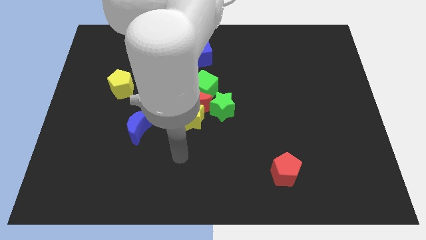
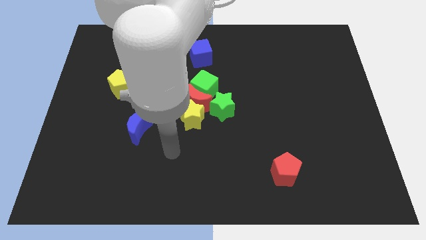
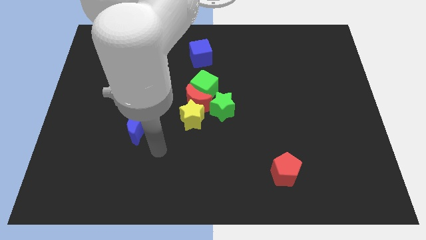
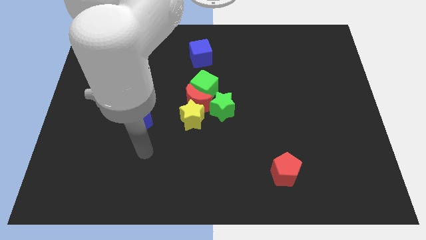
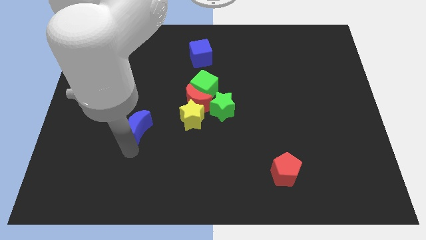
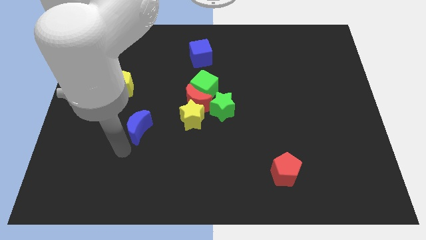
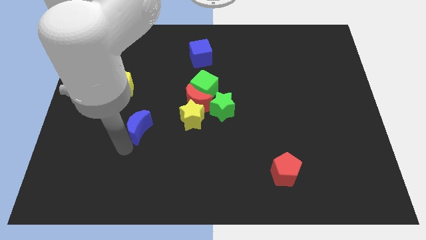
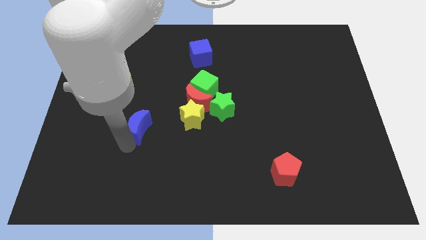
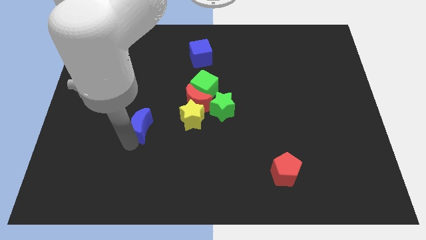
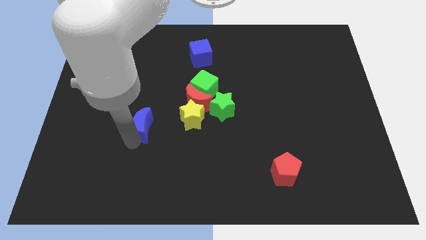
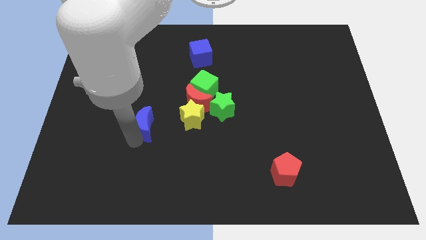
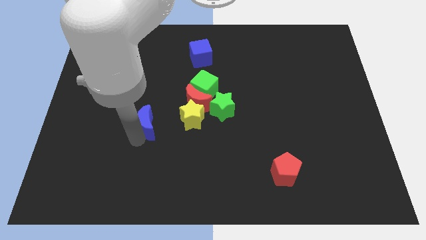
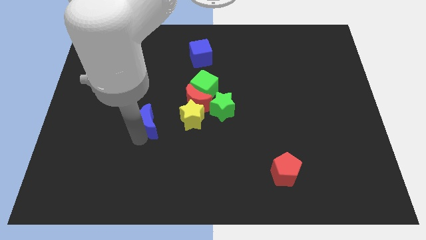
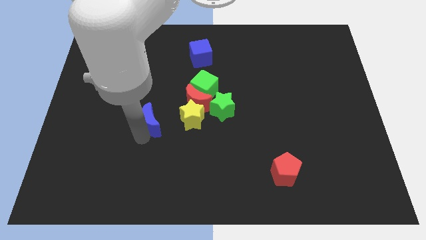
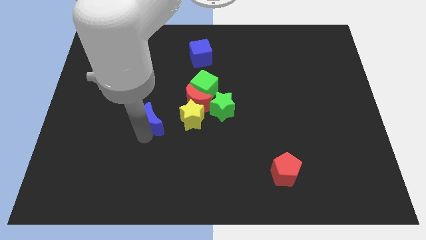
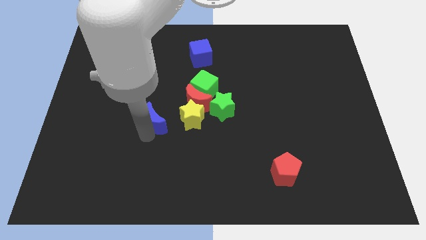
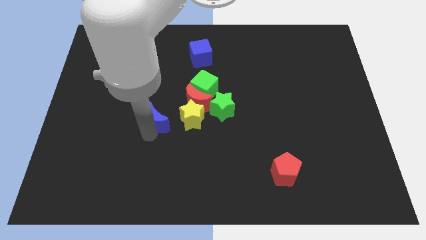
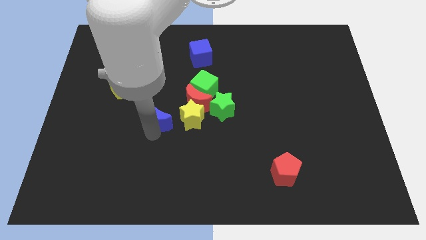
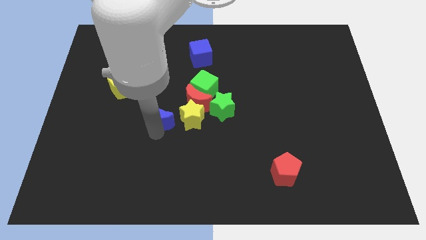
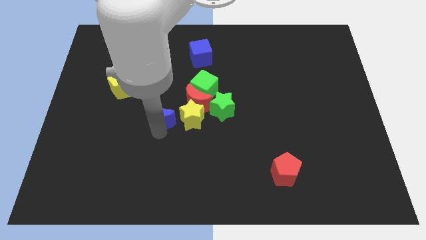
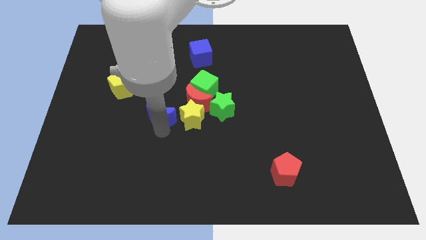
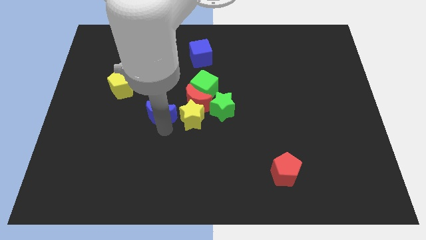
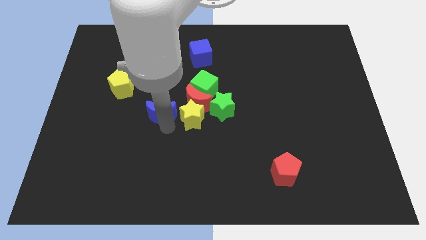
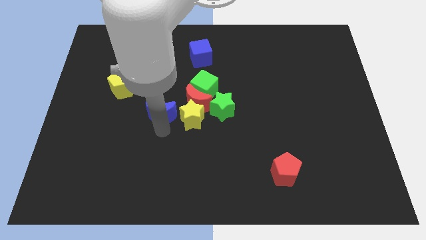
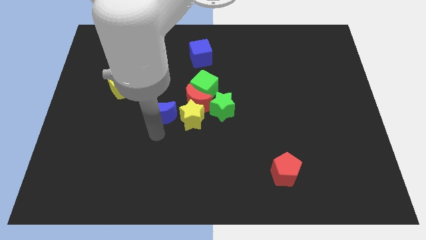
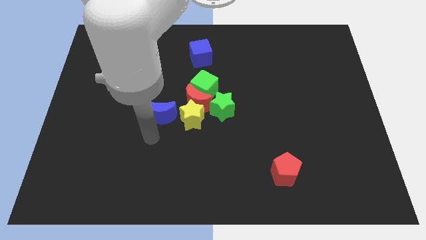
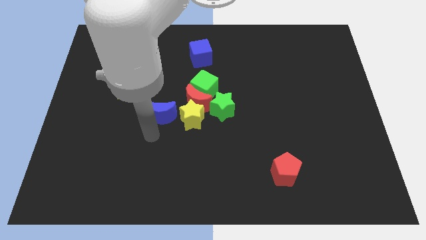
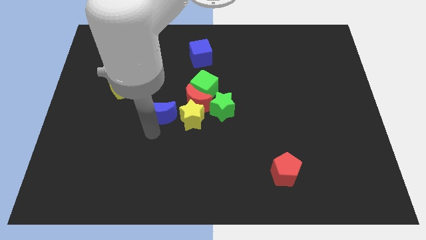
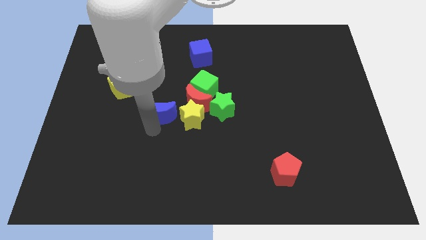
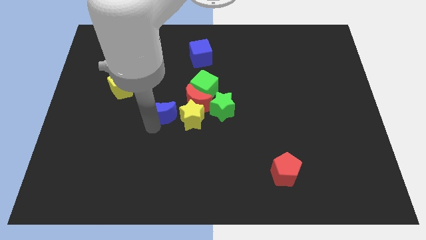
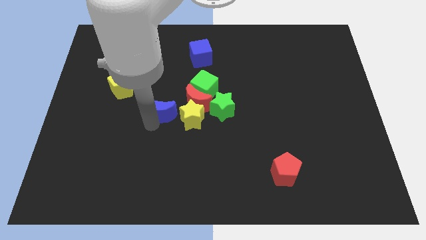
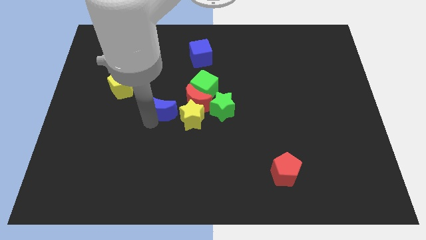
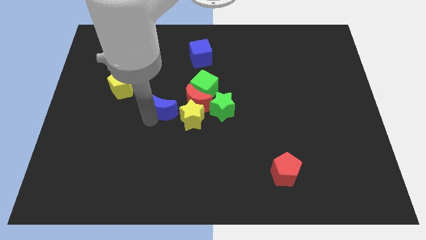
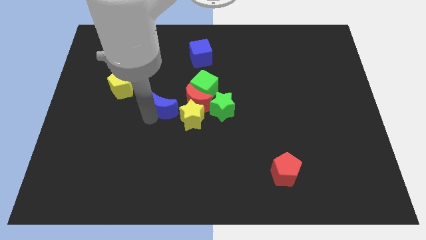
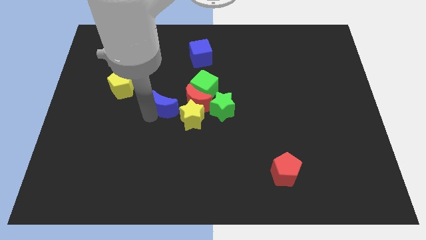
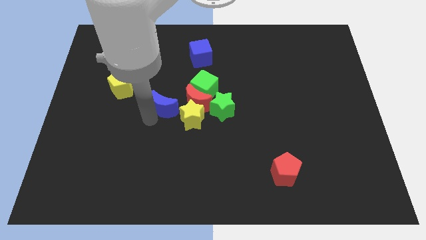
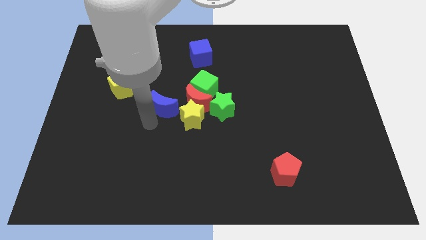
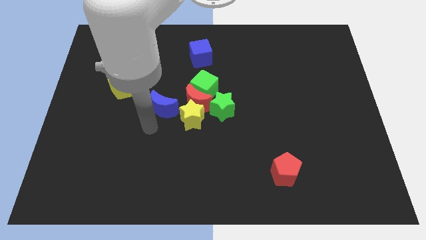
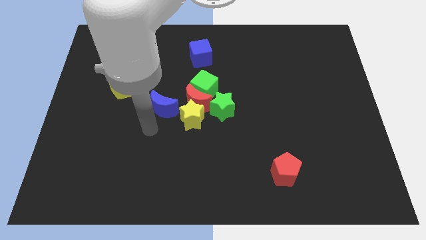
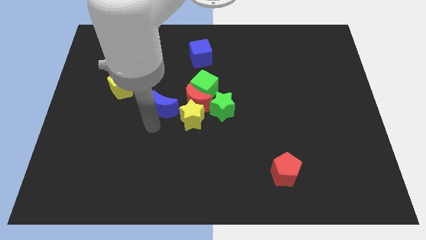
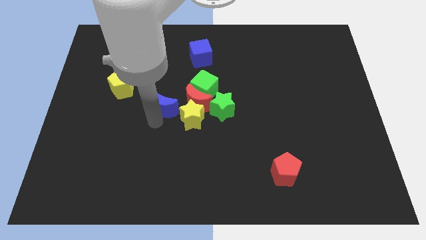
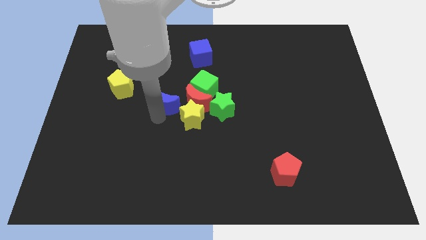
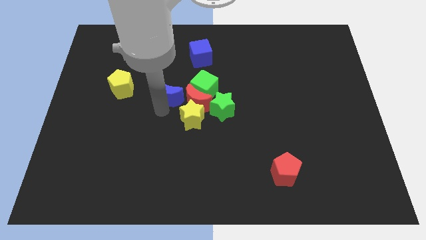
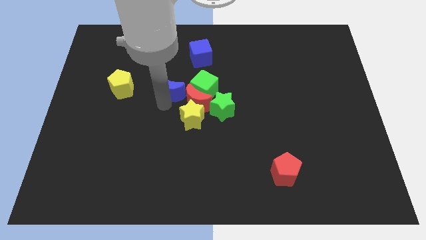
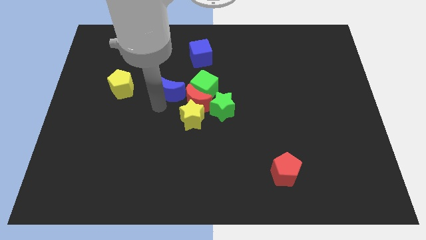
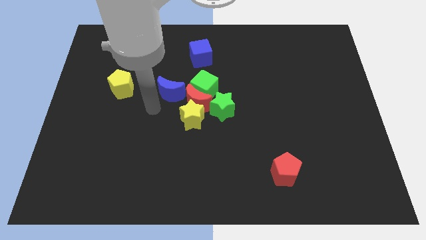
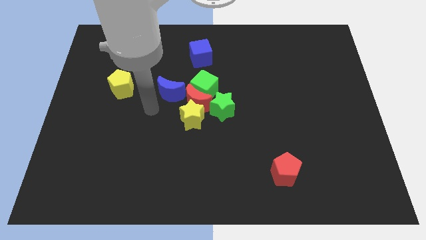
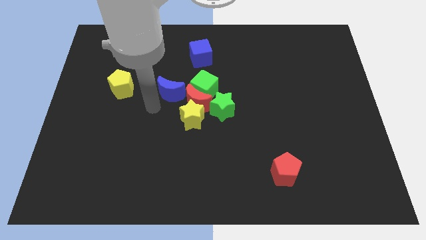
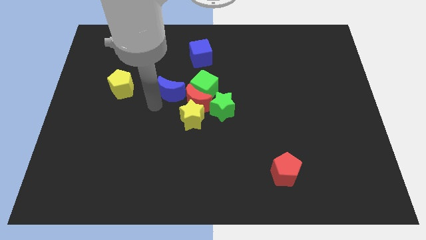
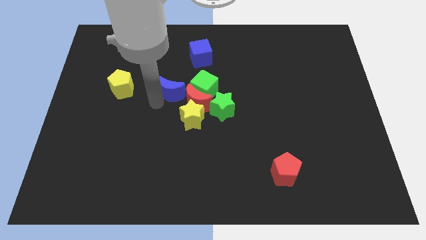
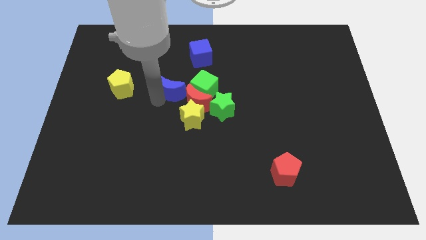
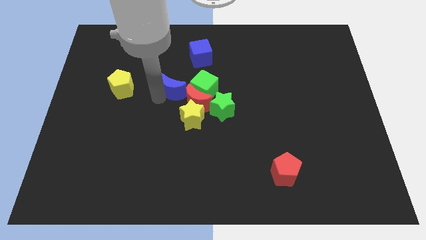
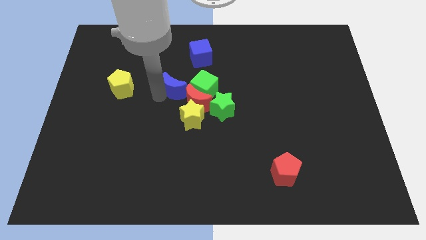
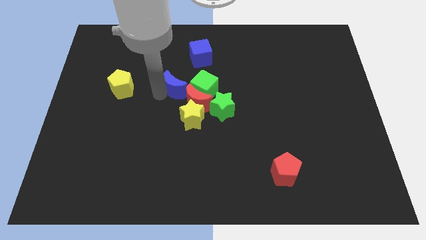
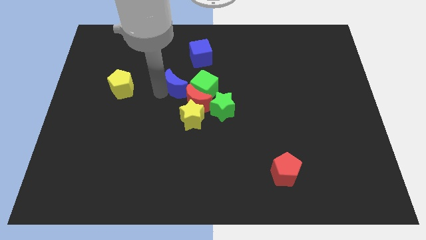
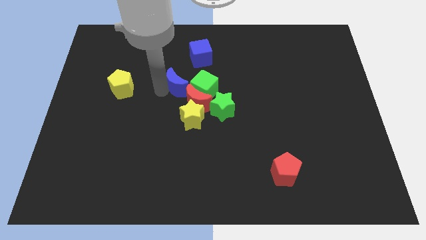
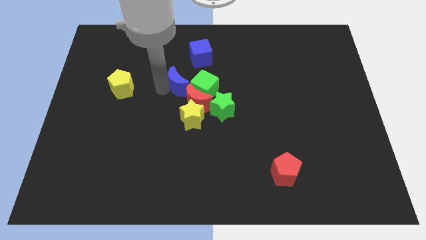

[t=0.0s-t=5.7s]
slide the blue moon to the top of the red moon

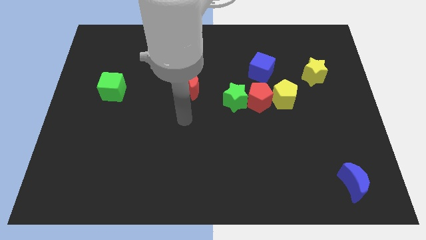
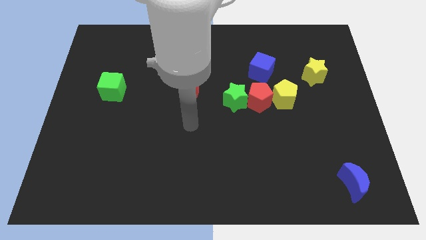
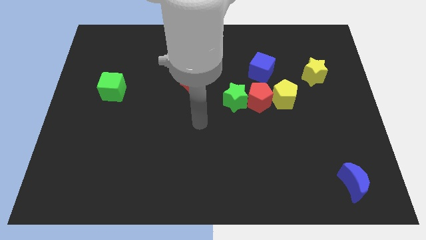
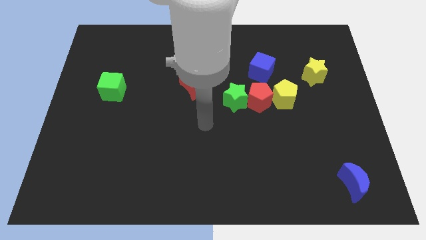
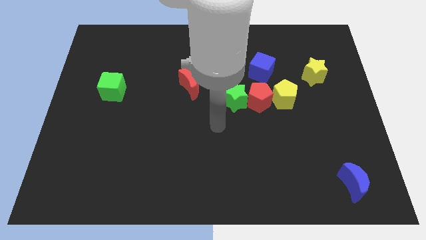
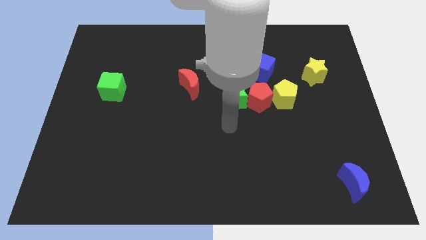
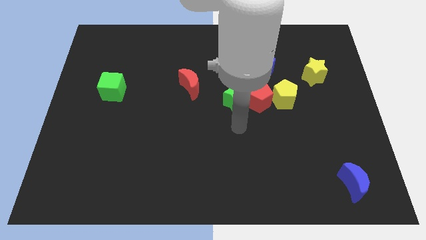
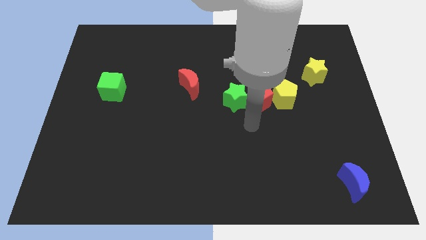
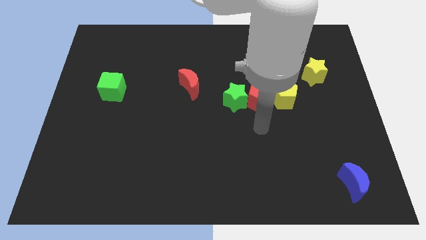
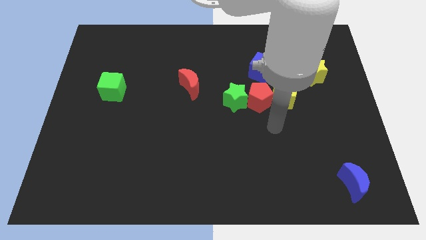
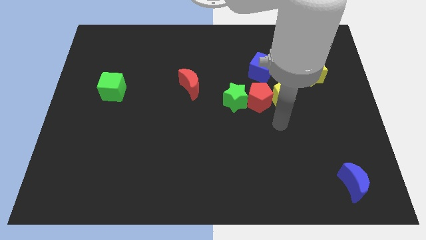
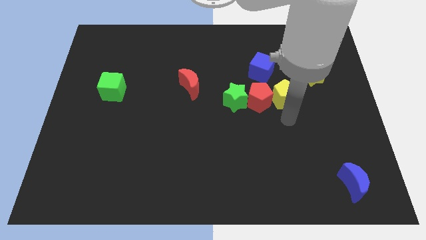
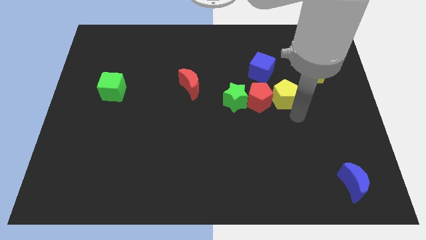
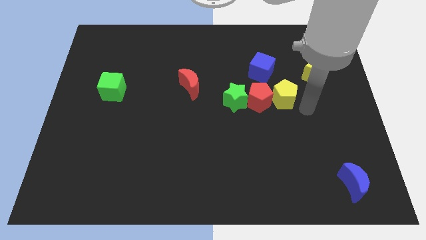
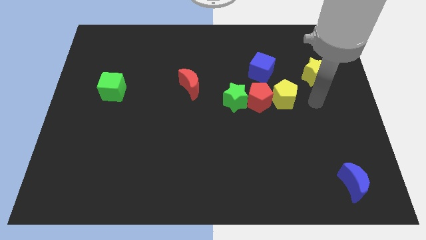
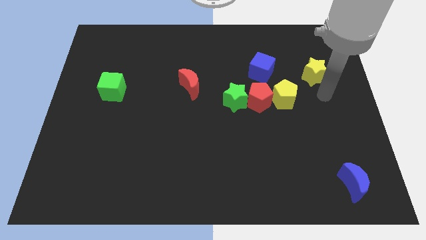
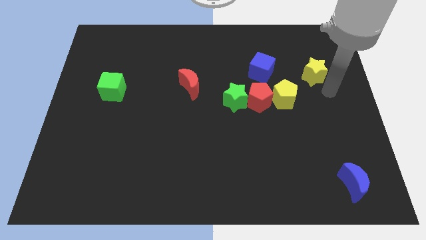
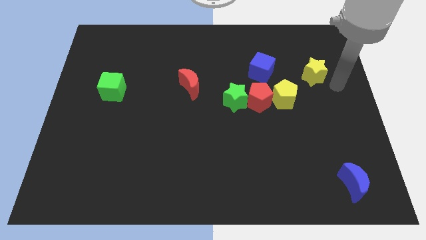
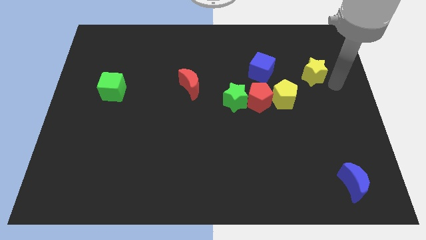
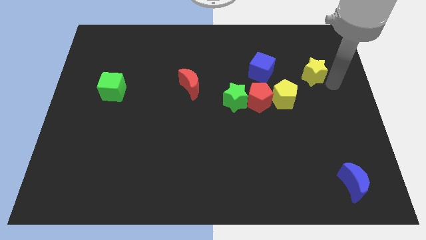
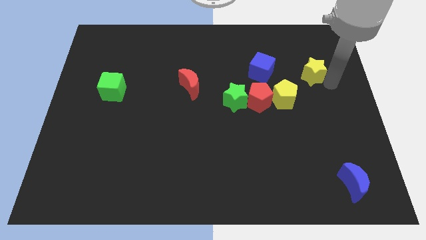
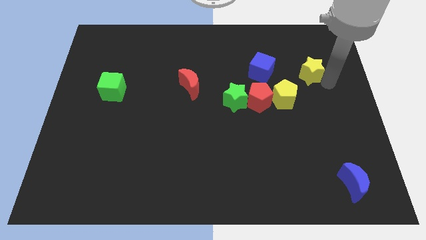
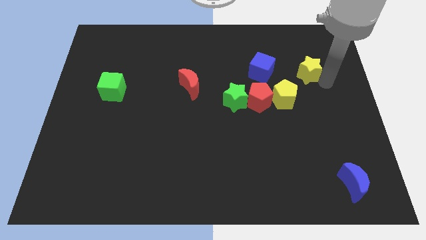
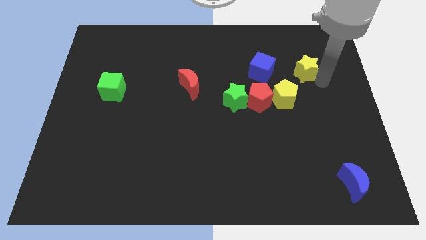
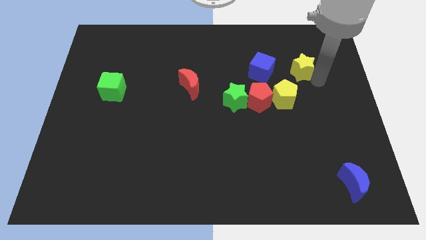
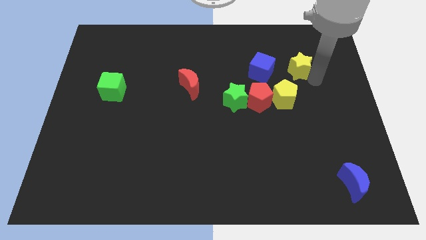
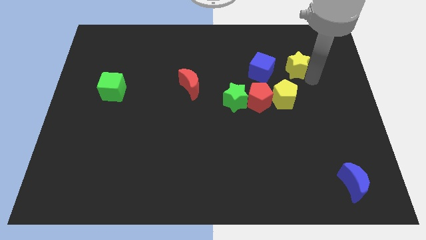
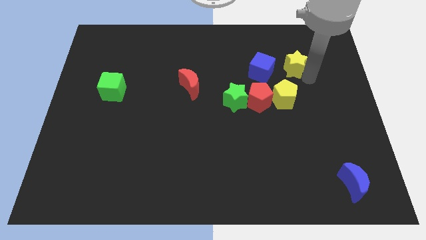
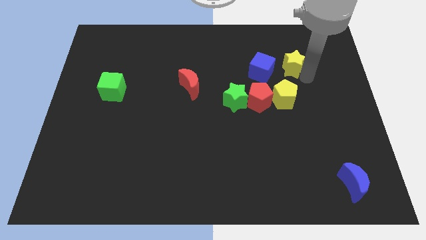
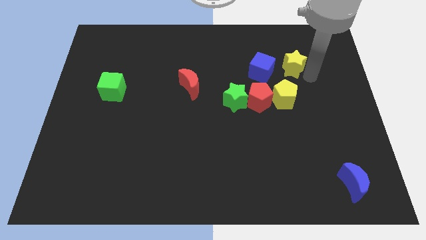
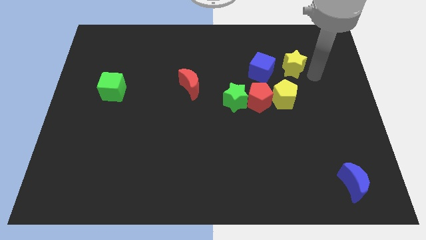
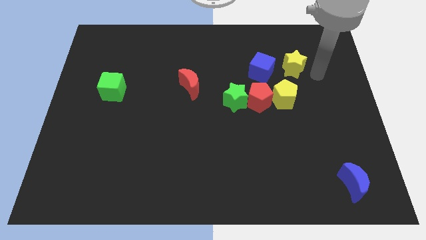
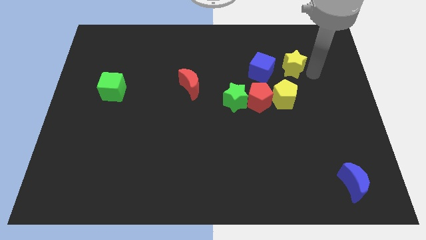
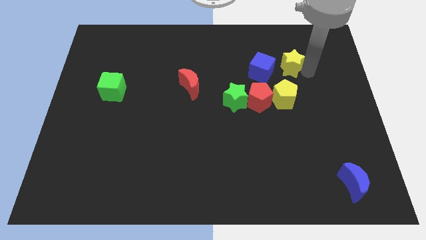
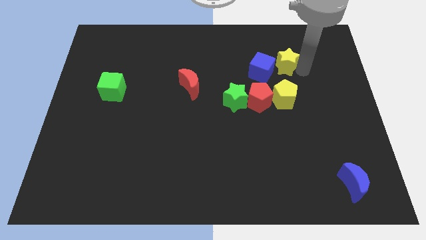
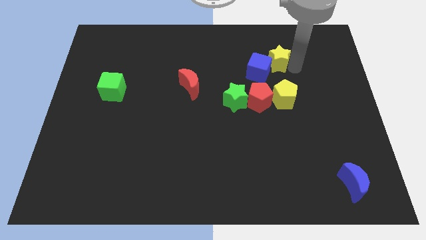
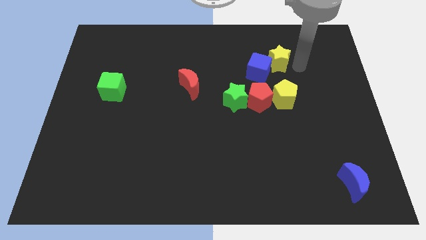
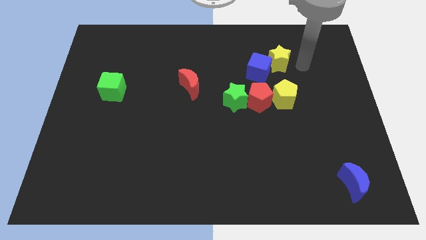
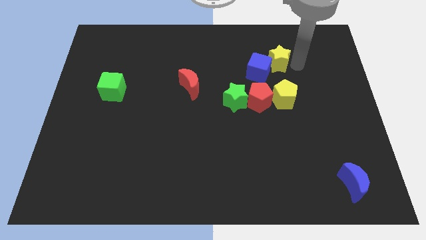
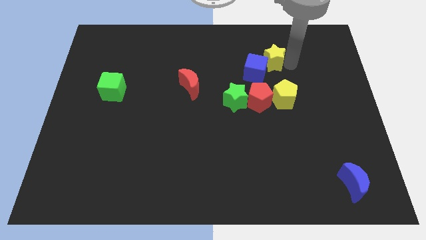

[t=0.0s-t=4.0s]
move the yellow star above the red pentagon
